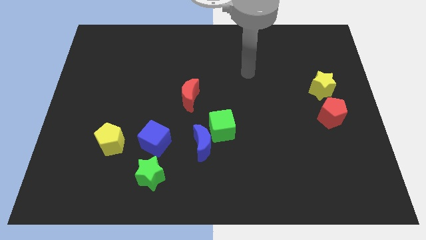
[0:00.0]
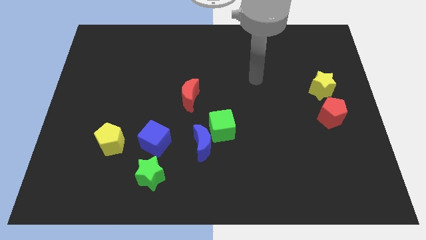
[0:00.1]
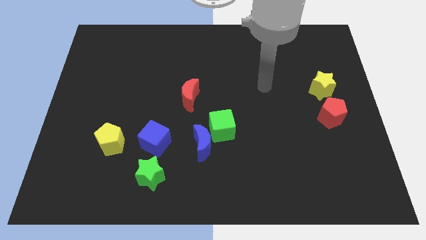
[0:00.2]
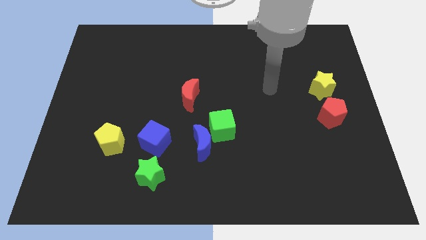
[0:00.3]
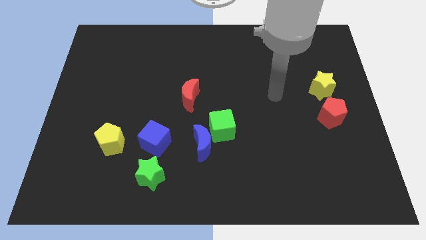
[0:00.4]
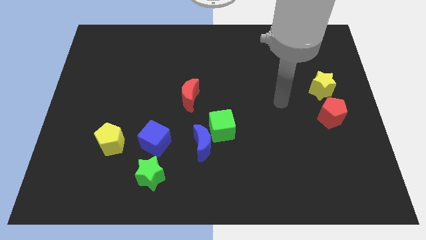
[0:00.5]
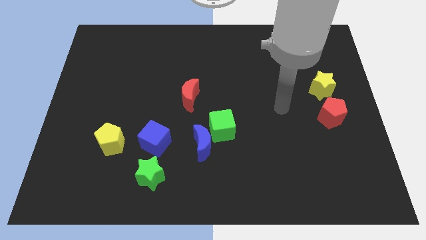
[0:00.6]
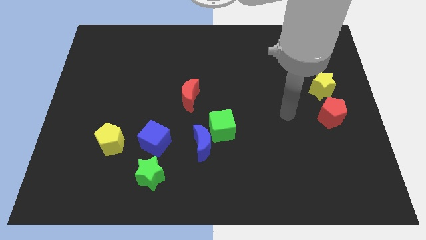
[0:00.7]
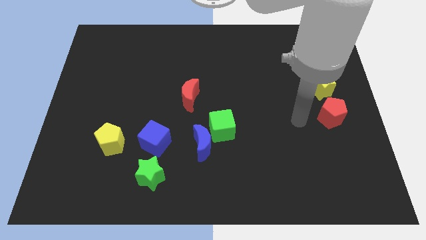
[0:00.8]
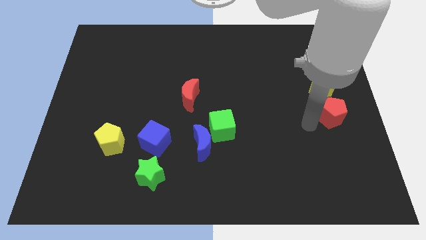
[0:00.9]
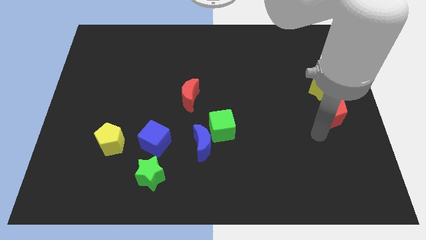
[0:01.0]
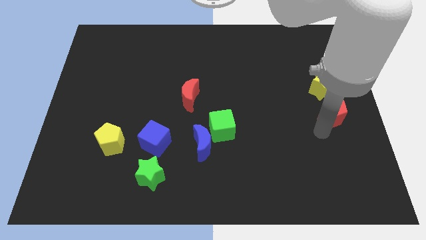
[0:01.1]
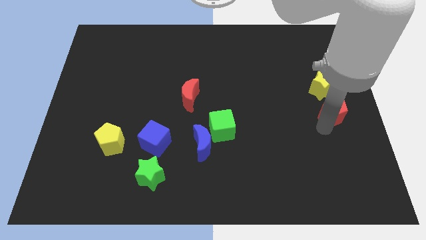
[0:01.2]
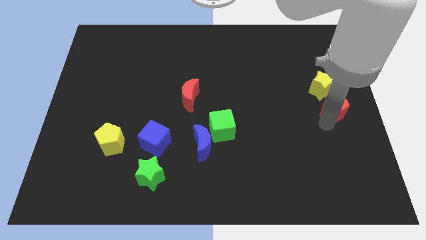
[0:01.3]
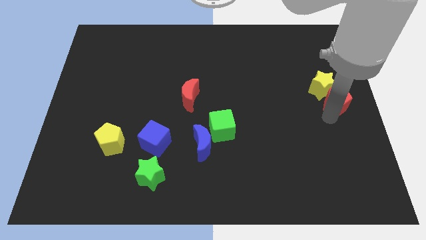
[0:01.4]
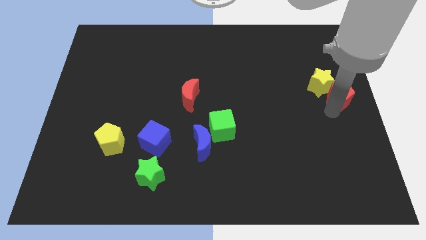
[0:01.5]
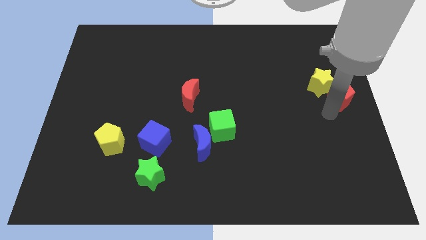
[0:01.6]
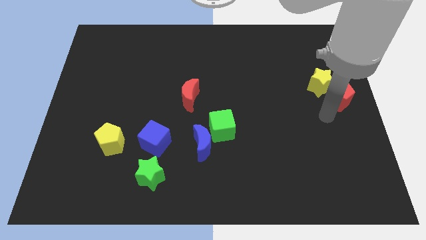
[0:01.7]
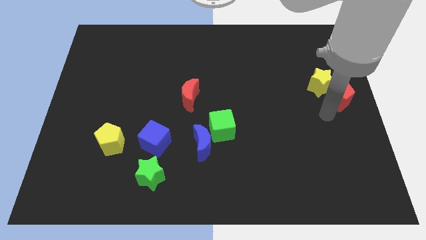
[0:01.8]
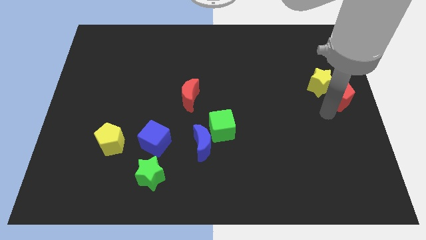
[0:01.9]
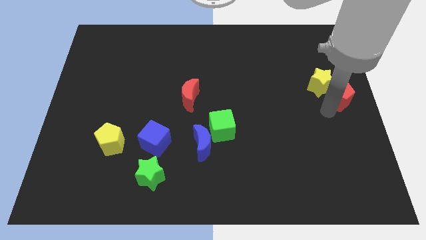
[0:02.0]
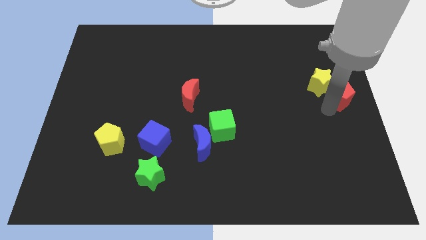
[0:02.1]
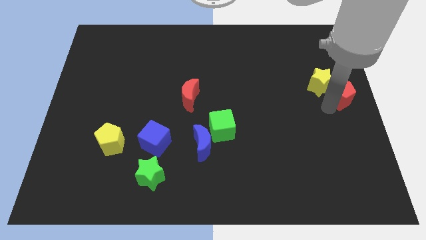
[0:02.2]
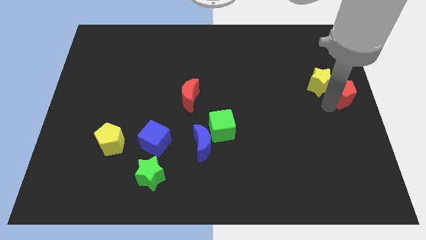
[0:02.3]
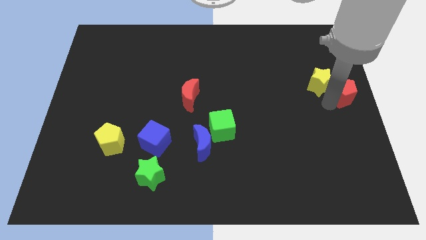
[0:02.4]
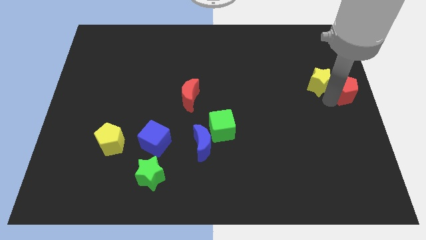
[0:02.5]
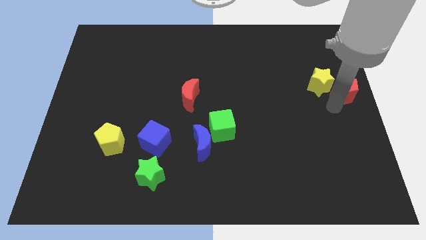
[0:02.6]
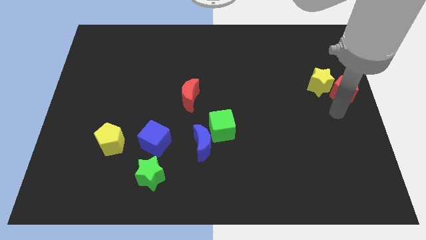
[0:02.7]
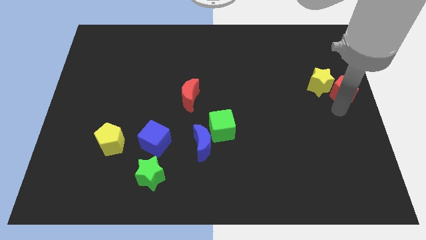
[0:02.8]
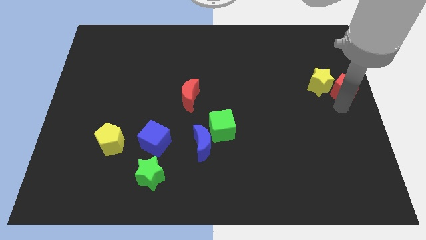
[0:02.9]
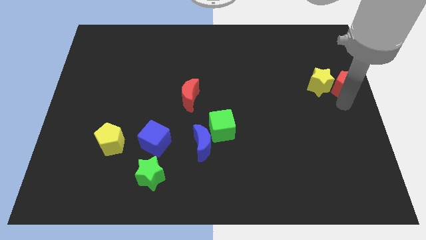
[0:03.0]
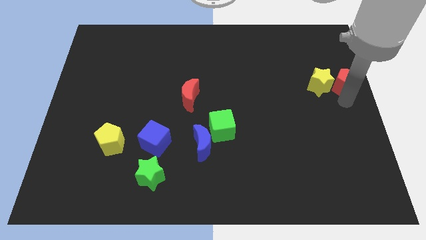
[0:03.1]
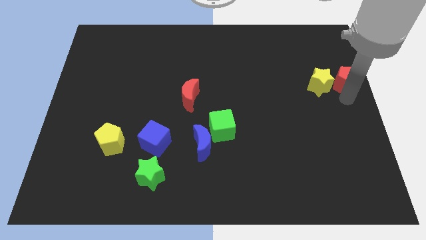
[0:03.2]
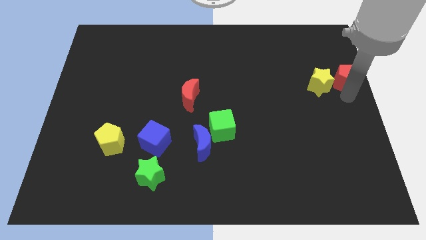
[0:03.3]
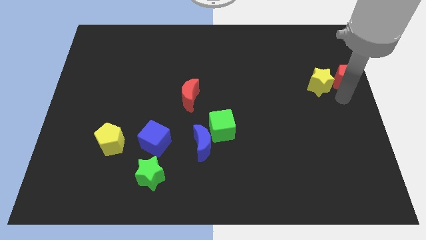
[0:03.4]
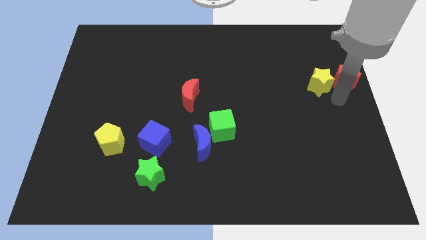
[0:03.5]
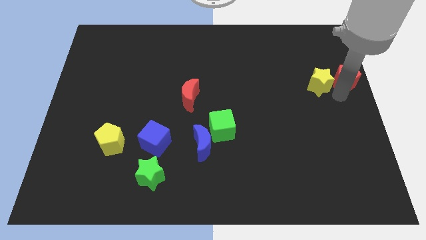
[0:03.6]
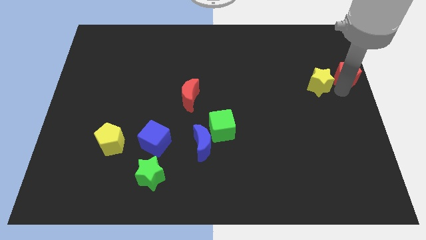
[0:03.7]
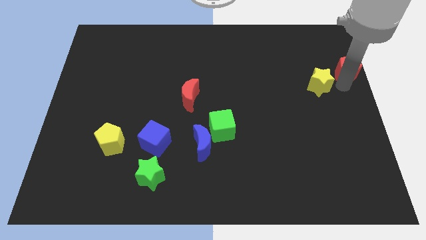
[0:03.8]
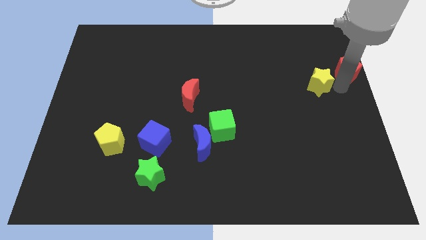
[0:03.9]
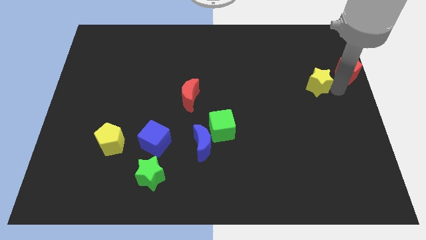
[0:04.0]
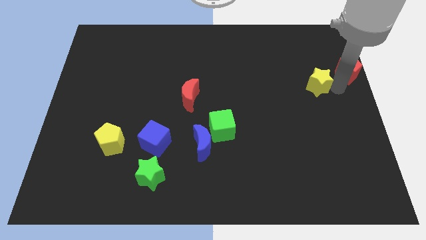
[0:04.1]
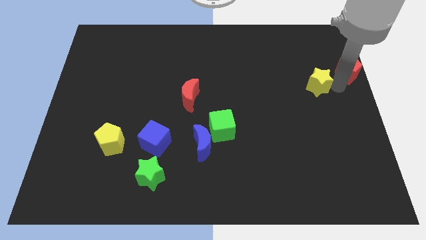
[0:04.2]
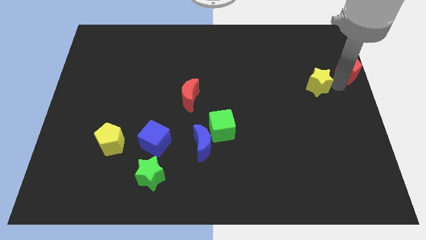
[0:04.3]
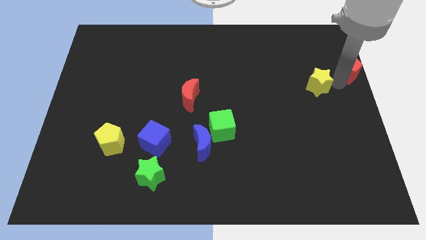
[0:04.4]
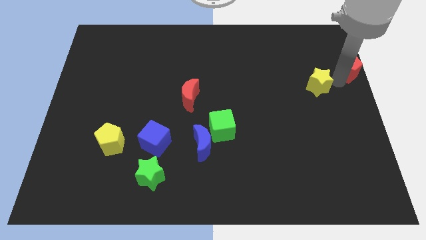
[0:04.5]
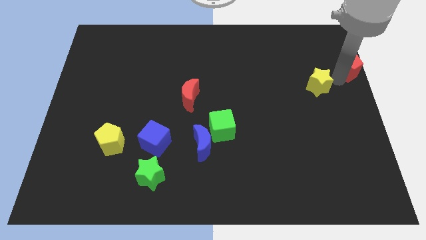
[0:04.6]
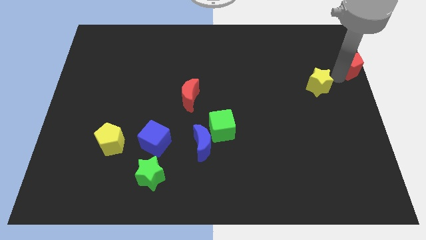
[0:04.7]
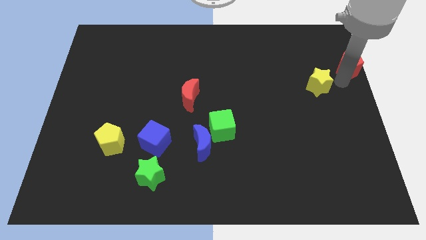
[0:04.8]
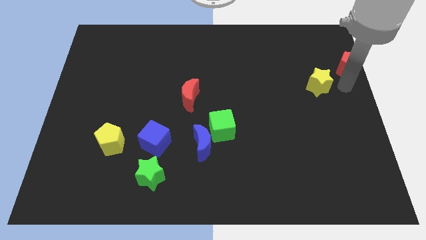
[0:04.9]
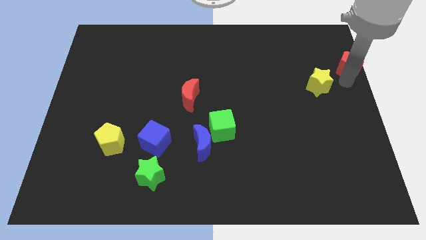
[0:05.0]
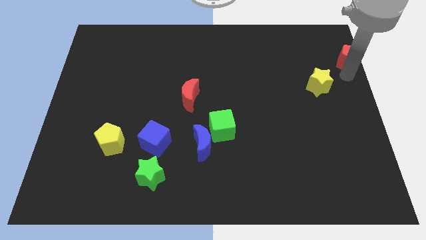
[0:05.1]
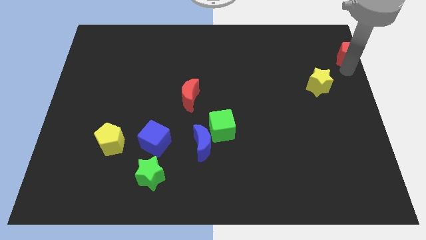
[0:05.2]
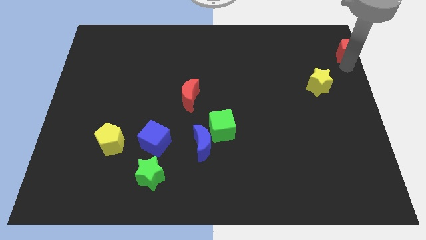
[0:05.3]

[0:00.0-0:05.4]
move the red pentagon to the top right corner

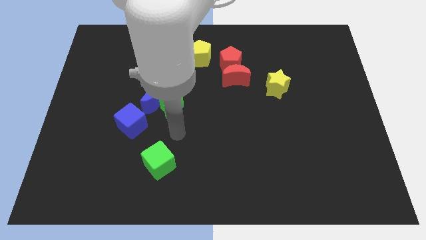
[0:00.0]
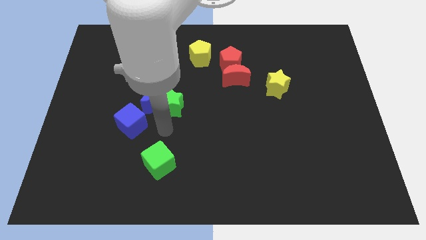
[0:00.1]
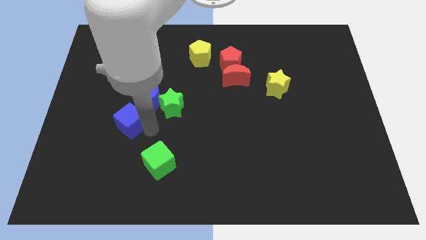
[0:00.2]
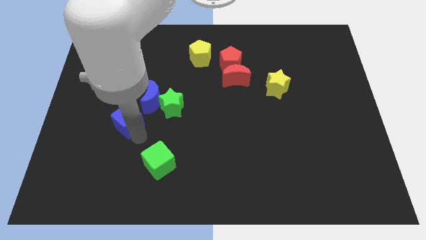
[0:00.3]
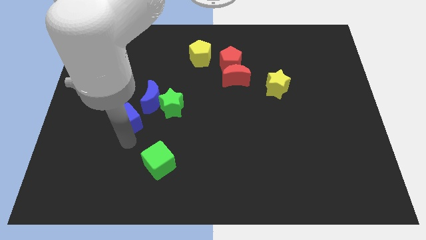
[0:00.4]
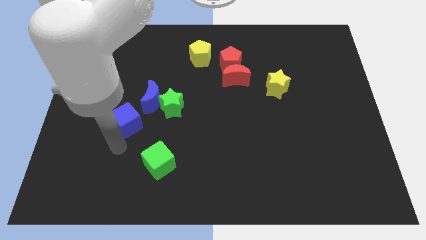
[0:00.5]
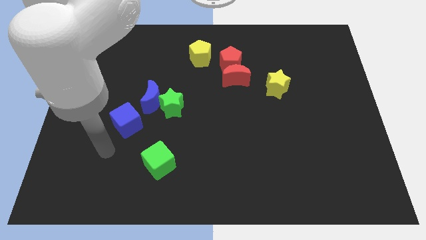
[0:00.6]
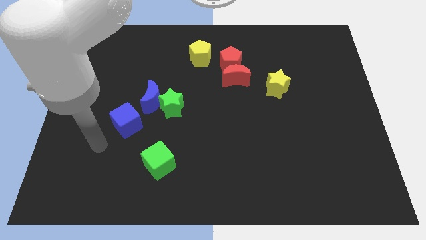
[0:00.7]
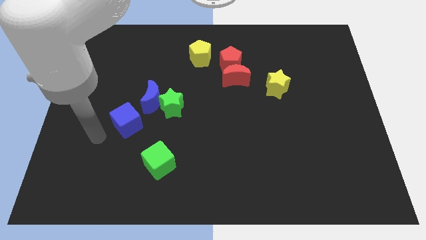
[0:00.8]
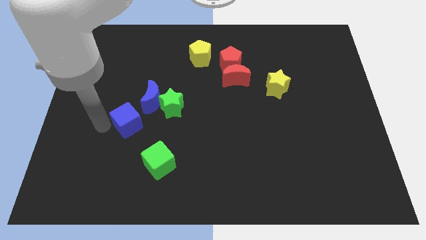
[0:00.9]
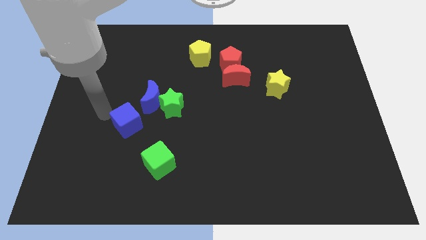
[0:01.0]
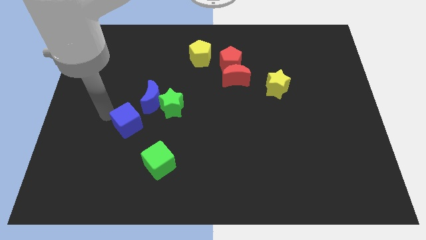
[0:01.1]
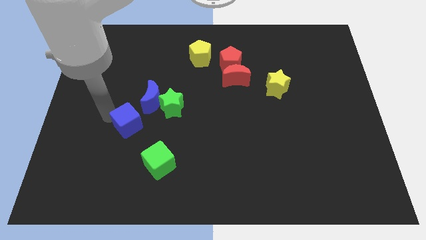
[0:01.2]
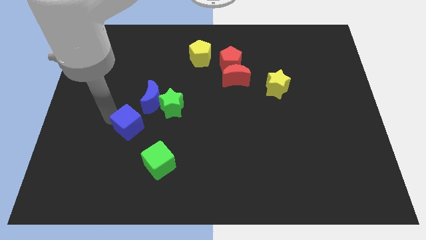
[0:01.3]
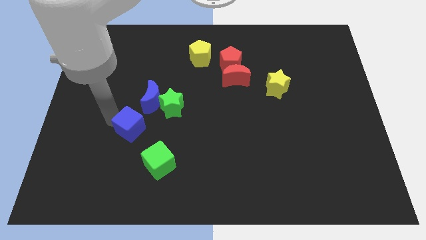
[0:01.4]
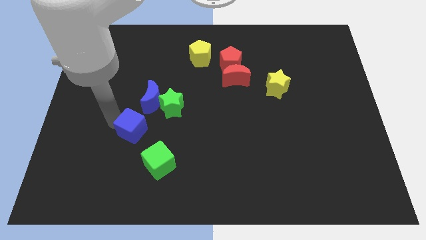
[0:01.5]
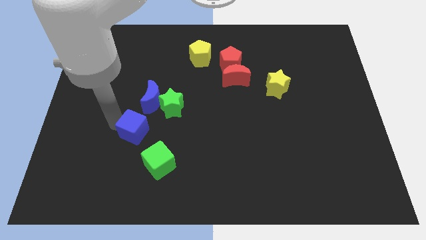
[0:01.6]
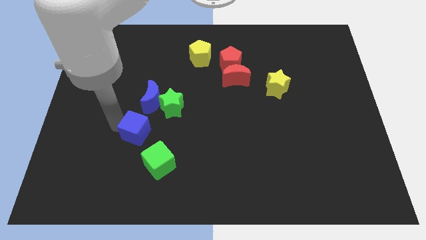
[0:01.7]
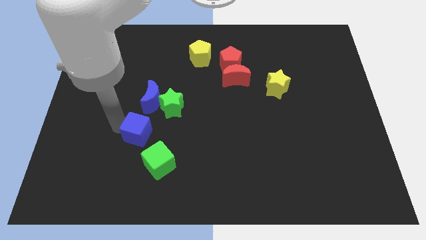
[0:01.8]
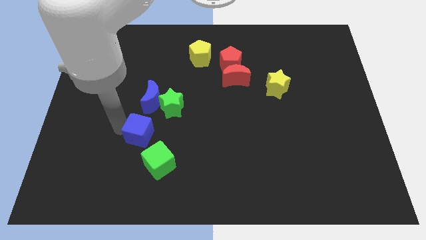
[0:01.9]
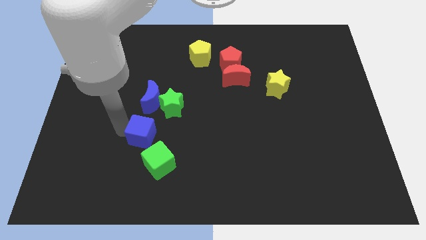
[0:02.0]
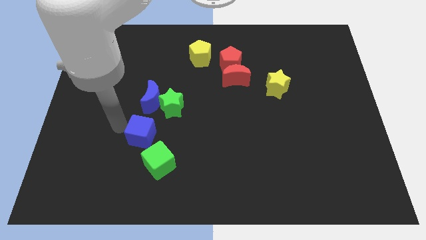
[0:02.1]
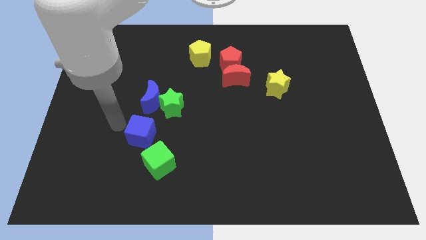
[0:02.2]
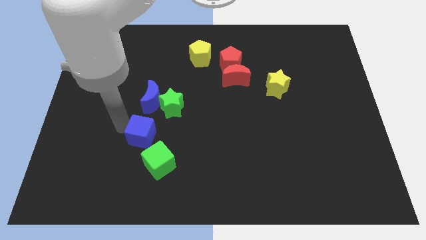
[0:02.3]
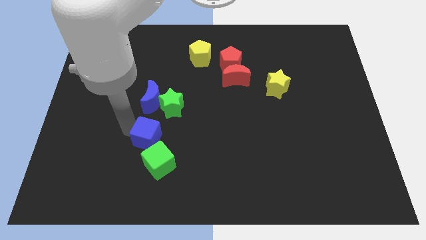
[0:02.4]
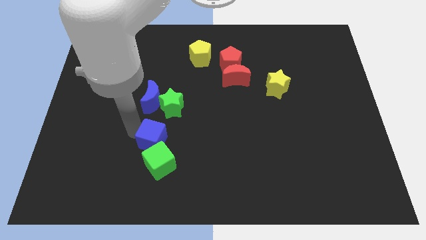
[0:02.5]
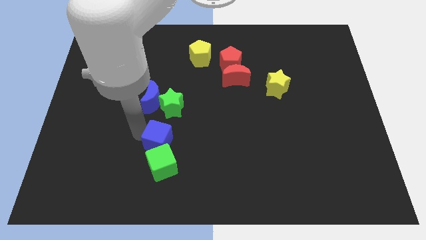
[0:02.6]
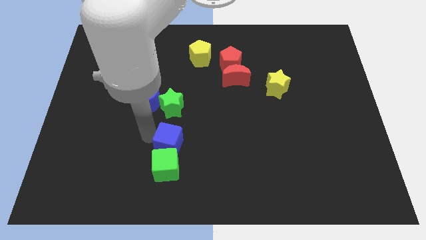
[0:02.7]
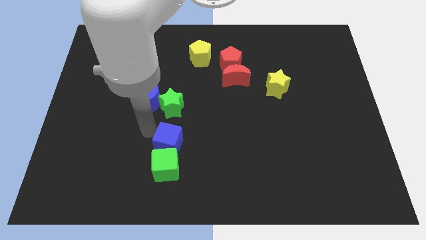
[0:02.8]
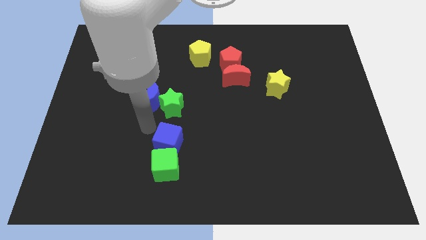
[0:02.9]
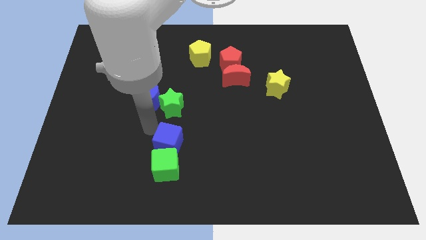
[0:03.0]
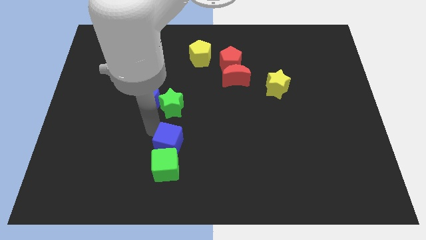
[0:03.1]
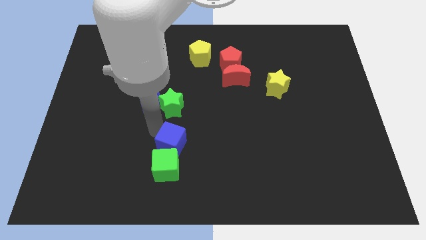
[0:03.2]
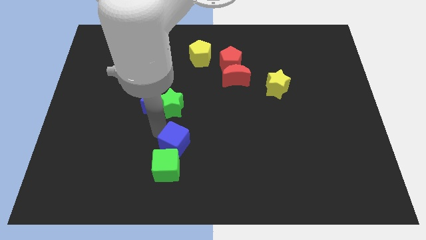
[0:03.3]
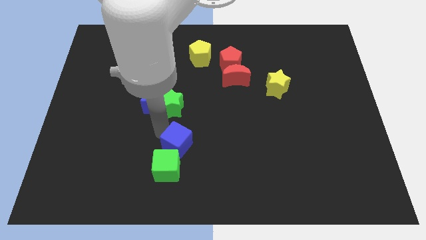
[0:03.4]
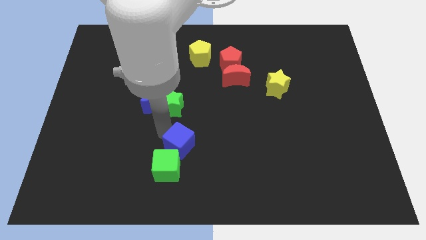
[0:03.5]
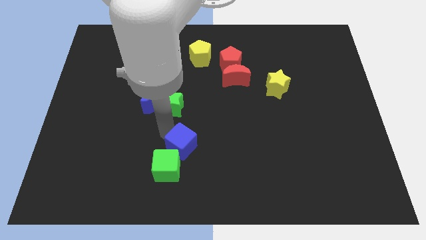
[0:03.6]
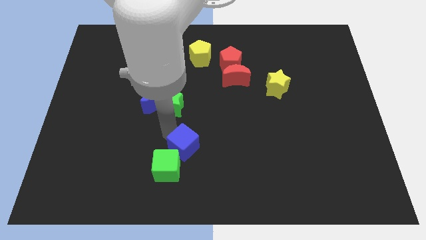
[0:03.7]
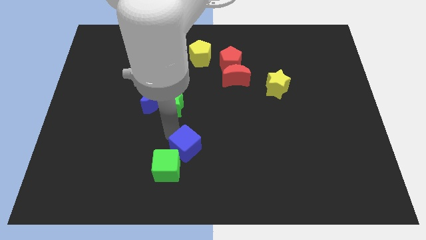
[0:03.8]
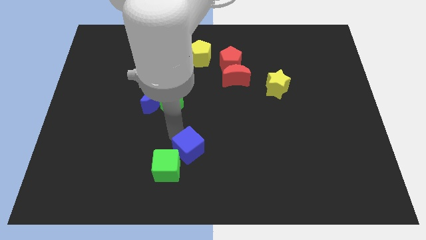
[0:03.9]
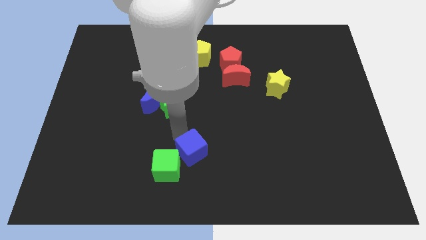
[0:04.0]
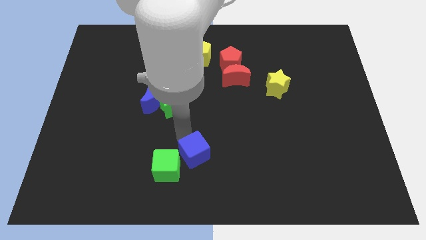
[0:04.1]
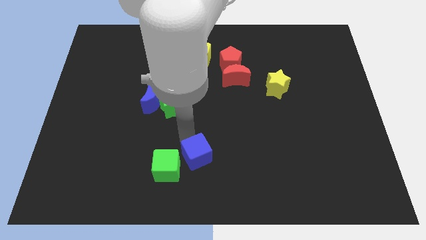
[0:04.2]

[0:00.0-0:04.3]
put the blue cube to the bottom
